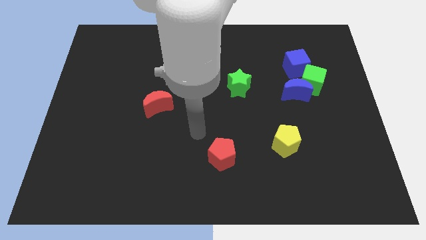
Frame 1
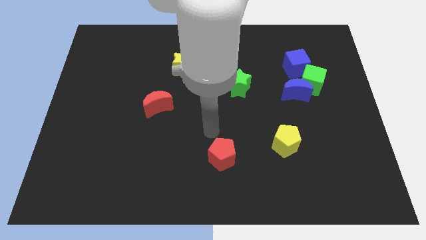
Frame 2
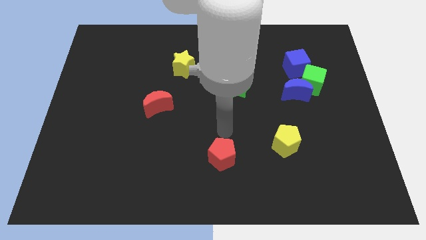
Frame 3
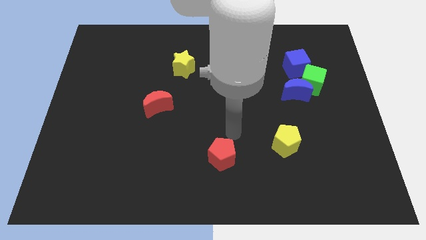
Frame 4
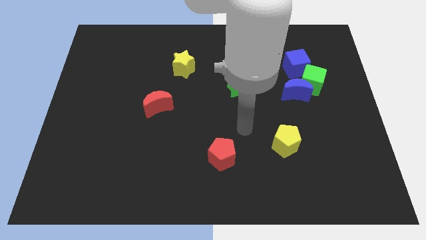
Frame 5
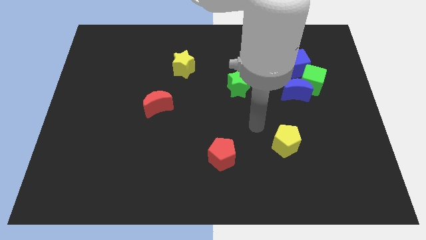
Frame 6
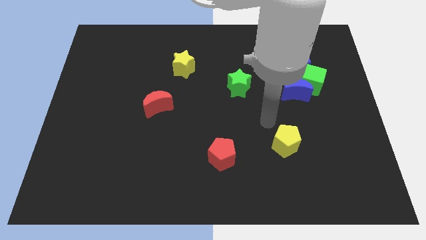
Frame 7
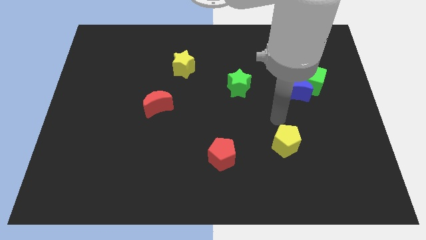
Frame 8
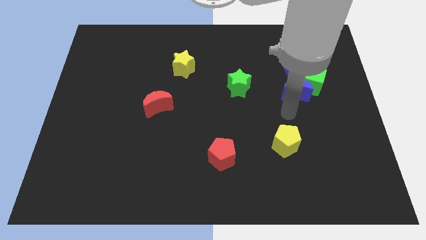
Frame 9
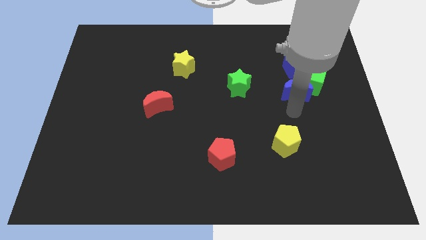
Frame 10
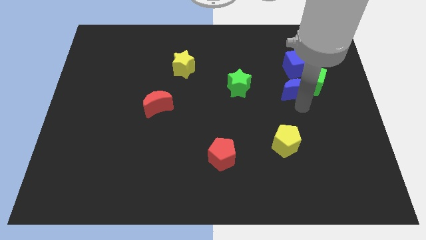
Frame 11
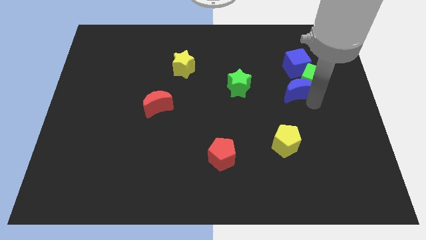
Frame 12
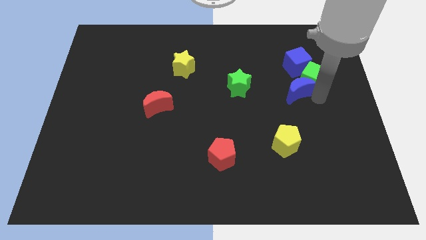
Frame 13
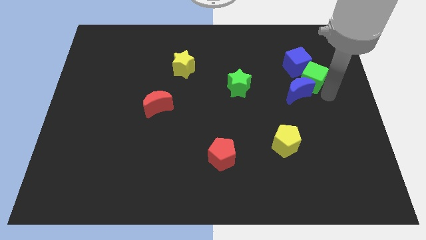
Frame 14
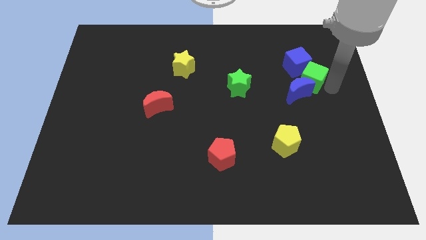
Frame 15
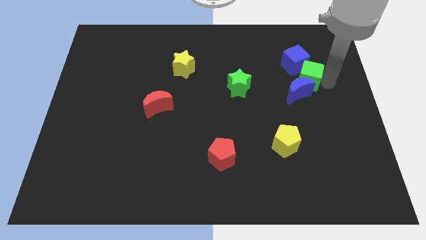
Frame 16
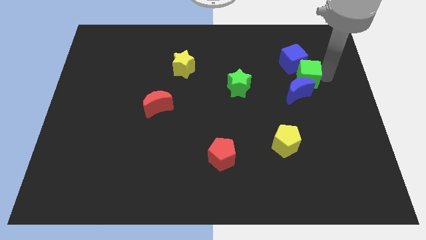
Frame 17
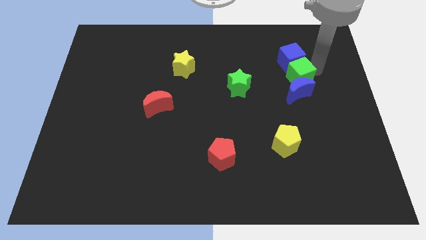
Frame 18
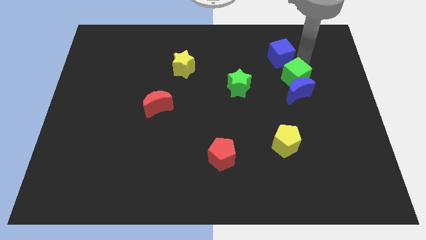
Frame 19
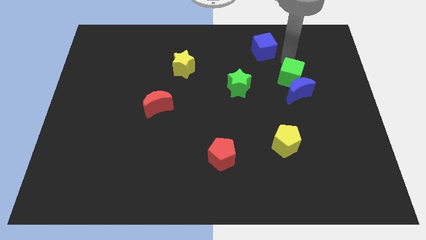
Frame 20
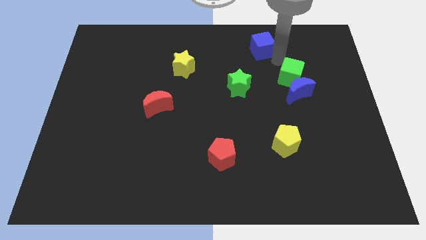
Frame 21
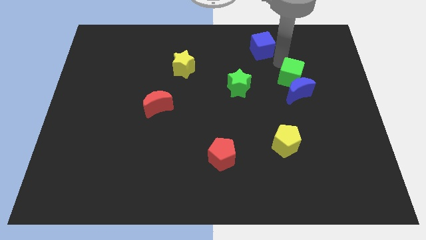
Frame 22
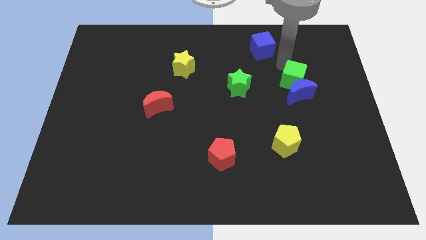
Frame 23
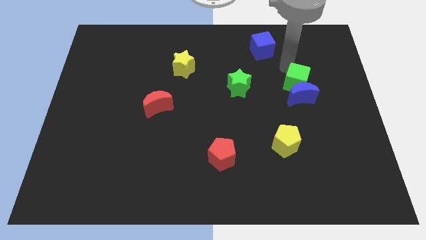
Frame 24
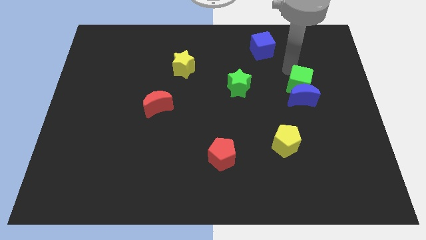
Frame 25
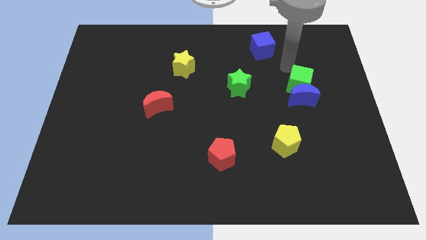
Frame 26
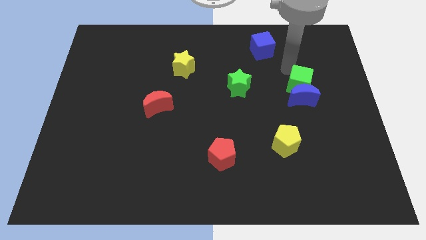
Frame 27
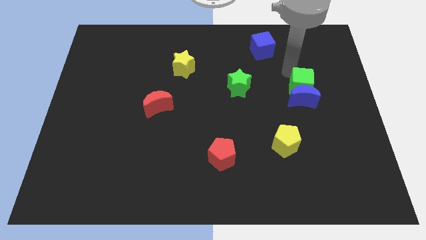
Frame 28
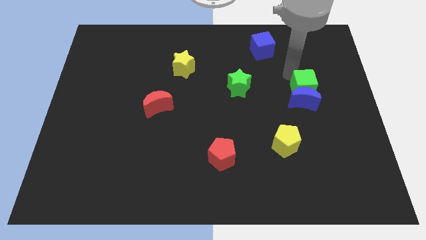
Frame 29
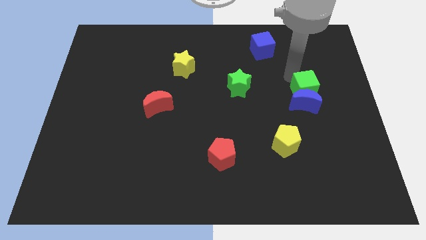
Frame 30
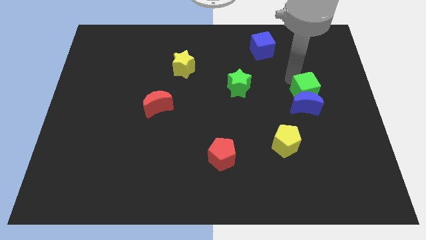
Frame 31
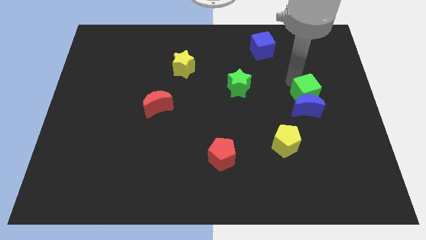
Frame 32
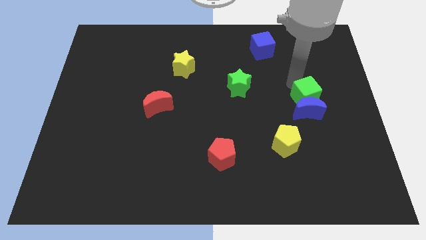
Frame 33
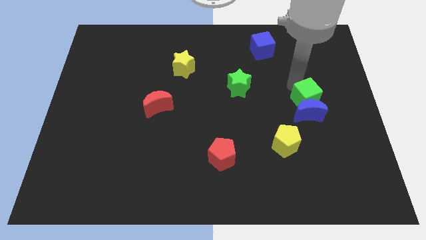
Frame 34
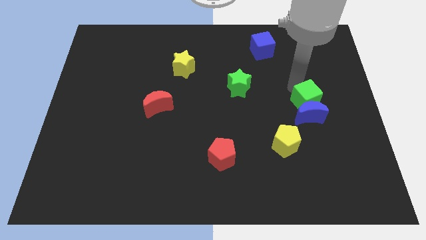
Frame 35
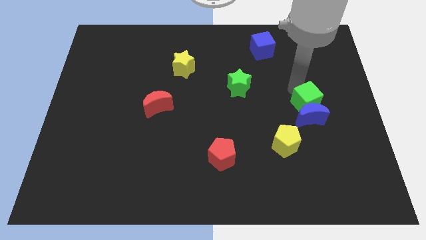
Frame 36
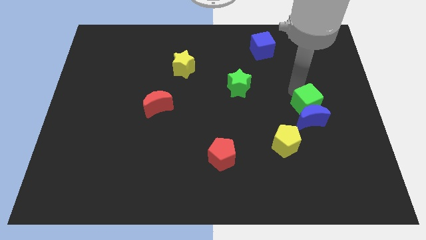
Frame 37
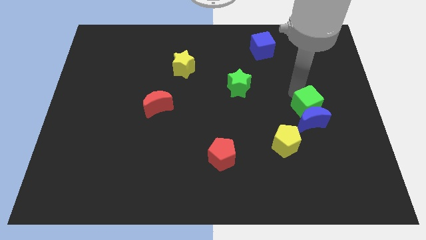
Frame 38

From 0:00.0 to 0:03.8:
slightly move the green cube down

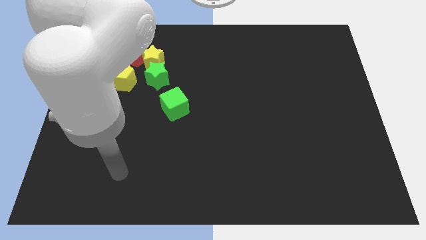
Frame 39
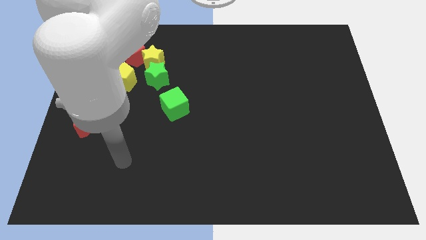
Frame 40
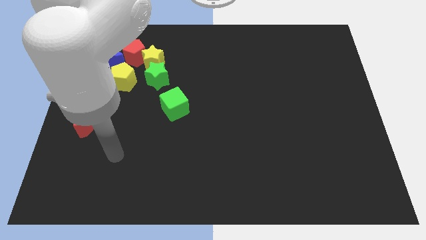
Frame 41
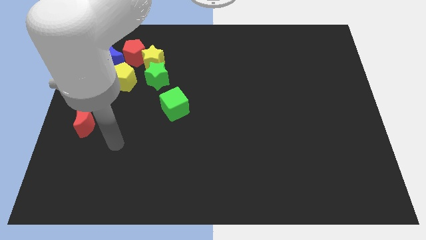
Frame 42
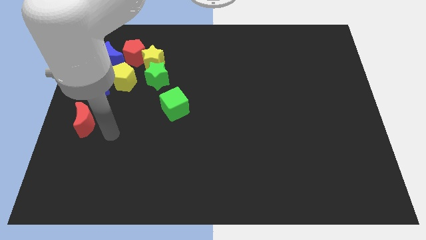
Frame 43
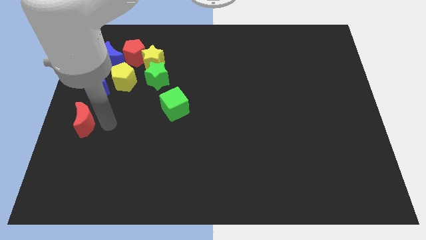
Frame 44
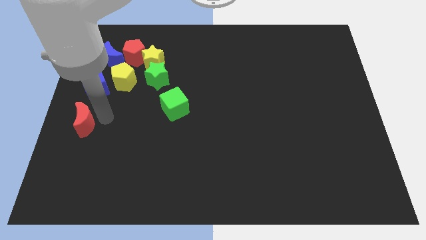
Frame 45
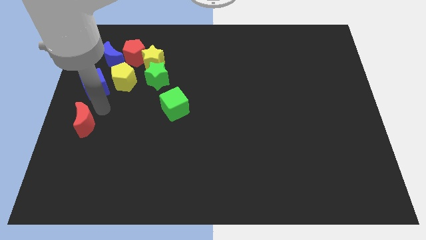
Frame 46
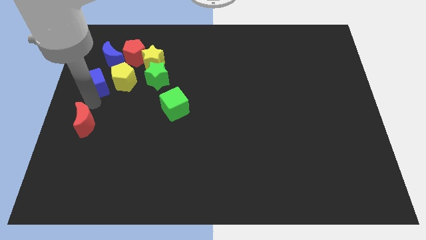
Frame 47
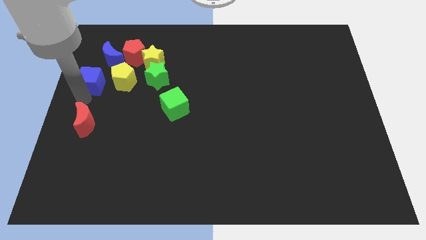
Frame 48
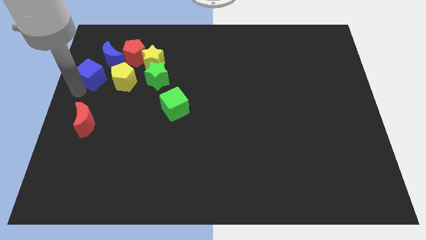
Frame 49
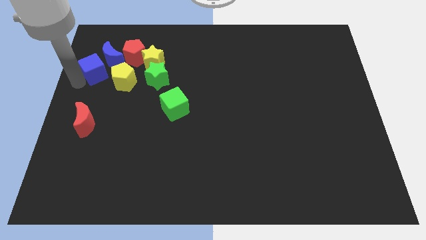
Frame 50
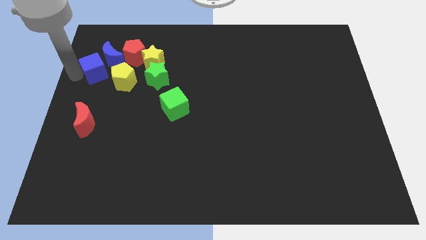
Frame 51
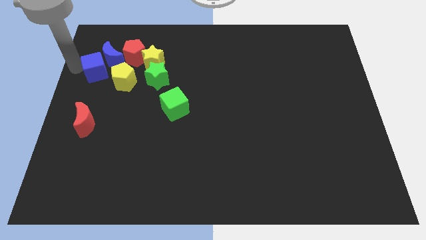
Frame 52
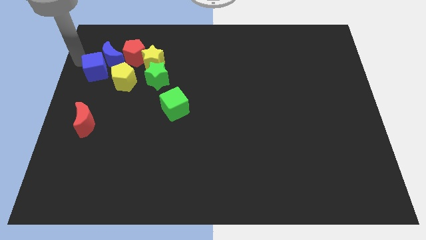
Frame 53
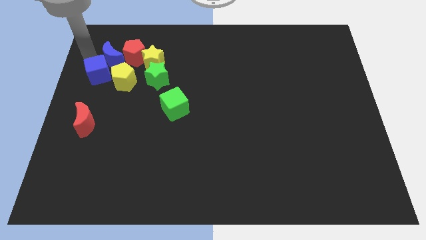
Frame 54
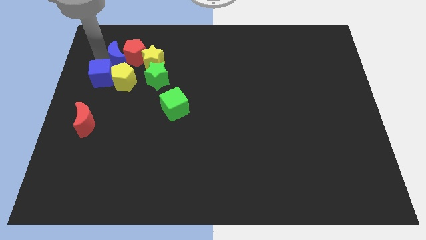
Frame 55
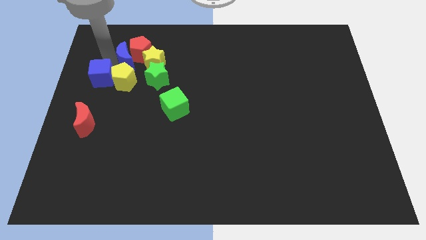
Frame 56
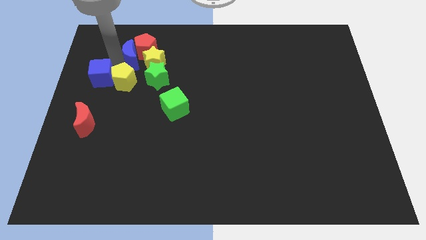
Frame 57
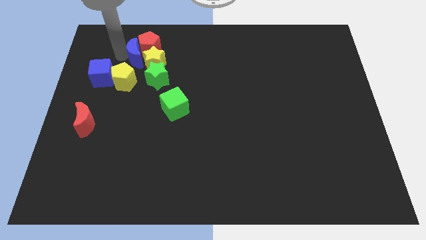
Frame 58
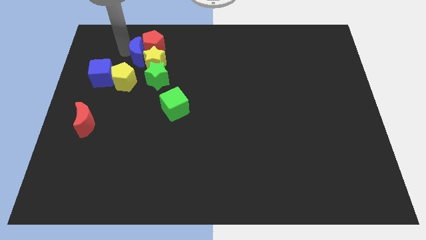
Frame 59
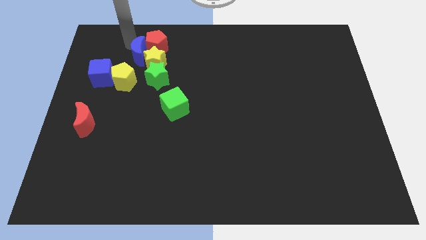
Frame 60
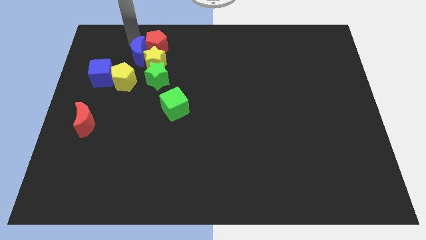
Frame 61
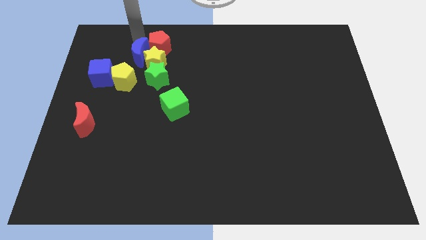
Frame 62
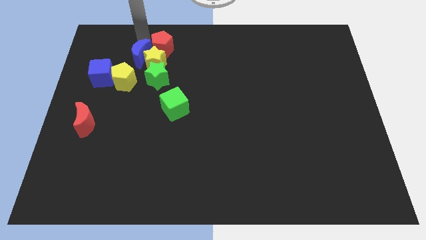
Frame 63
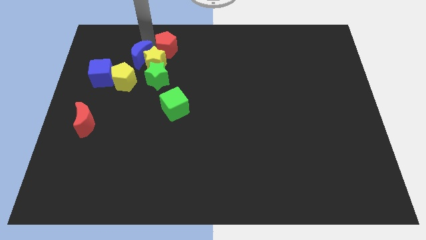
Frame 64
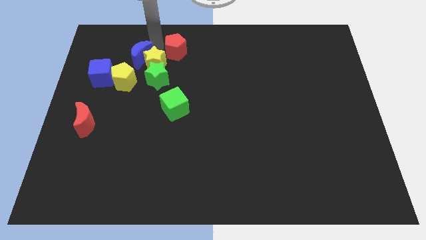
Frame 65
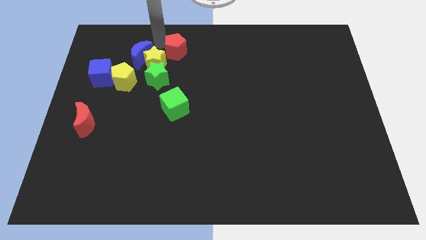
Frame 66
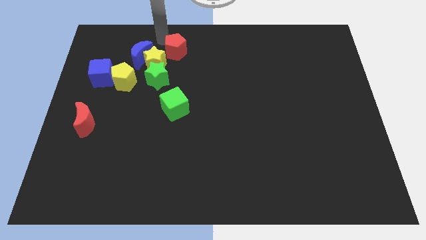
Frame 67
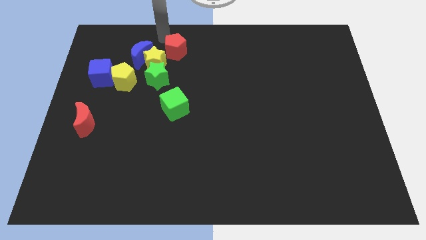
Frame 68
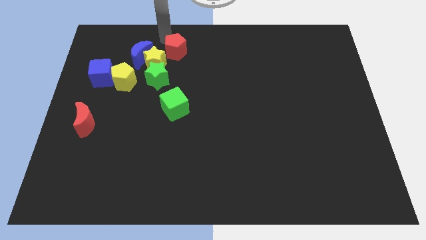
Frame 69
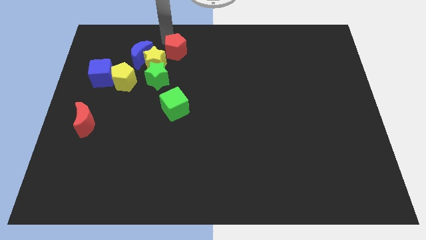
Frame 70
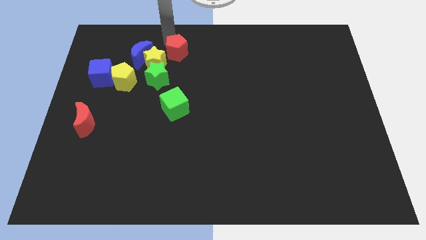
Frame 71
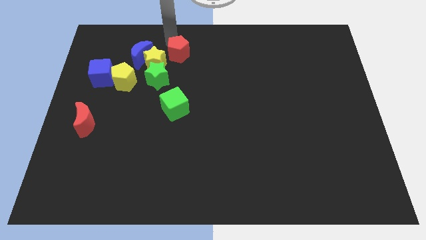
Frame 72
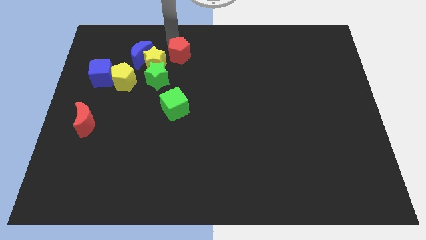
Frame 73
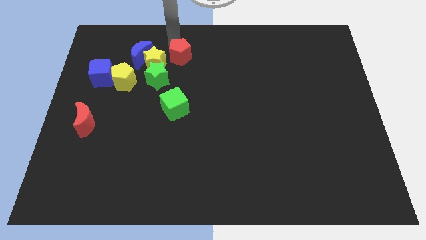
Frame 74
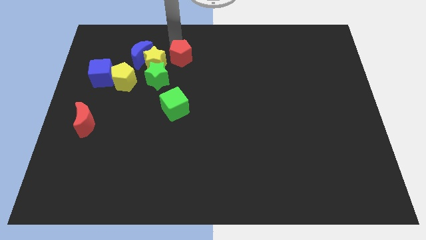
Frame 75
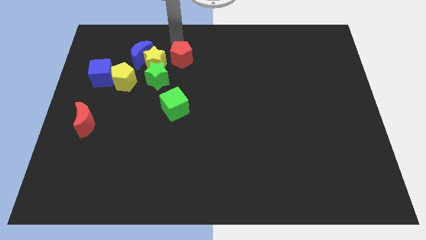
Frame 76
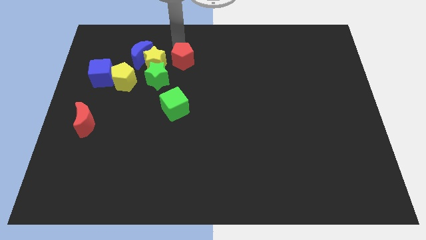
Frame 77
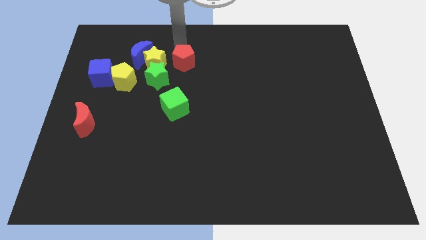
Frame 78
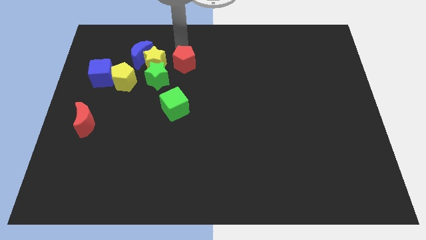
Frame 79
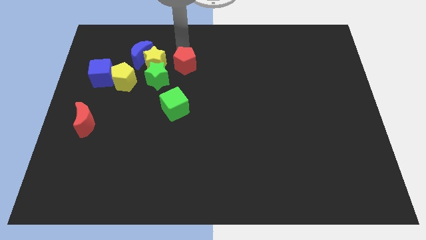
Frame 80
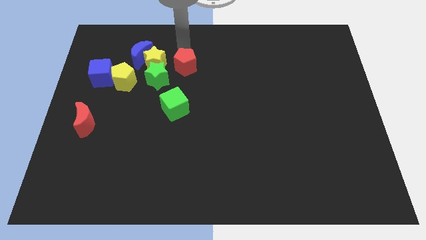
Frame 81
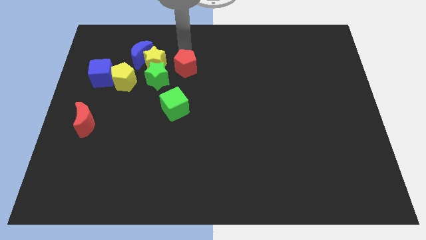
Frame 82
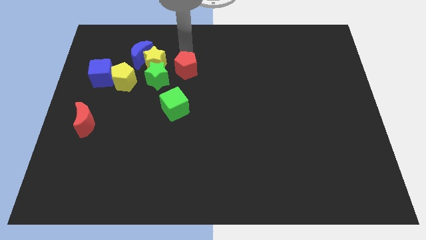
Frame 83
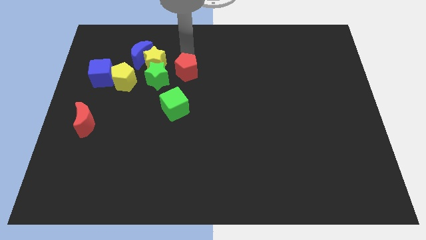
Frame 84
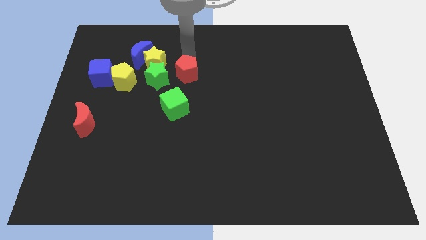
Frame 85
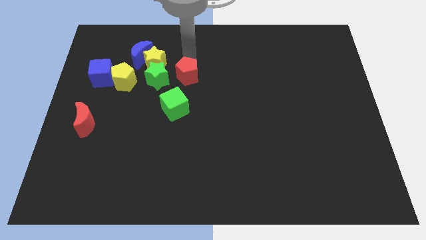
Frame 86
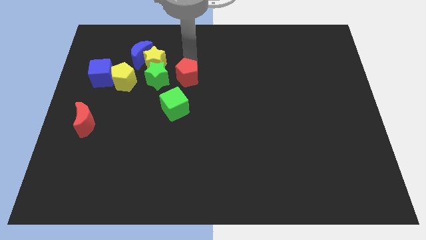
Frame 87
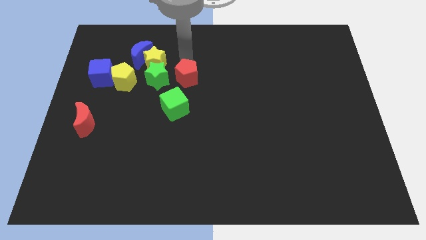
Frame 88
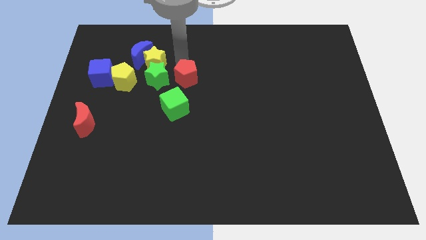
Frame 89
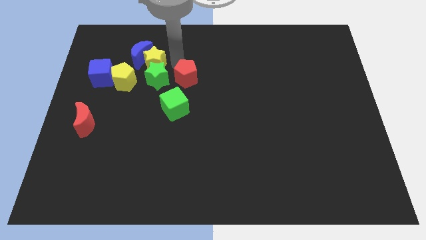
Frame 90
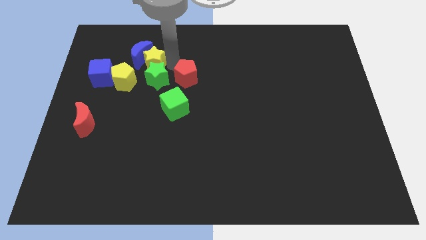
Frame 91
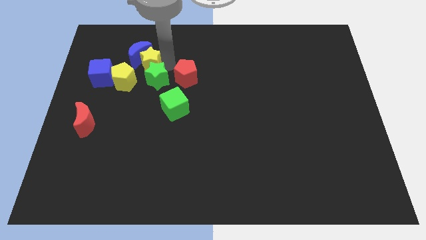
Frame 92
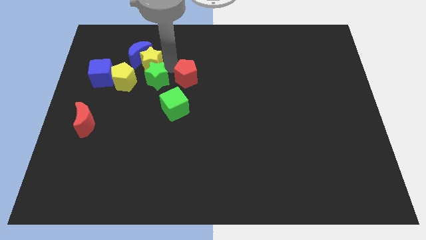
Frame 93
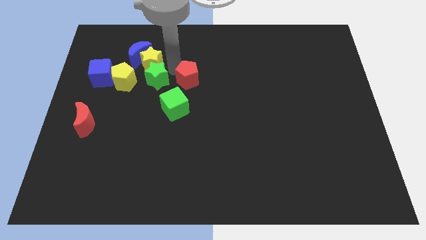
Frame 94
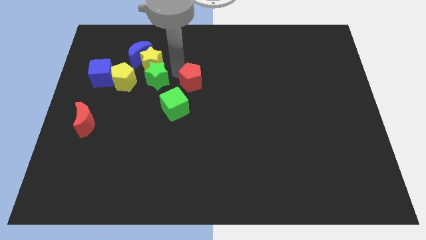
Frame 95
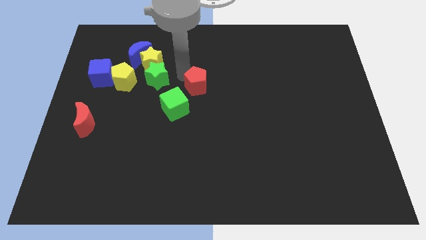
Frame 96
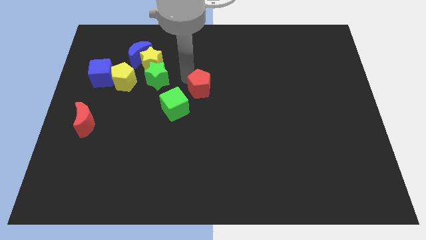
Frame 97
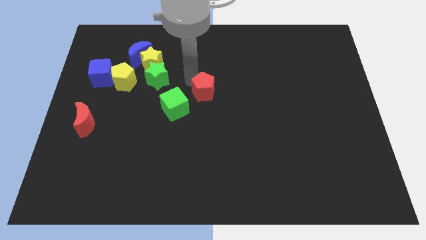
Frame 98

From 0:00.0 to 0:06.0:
move the red pentagon downwards and right diagonally
